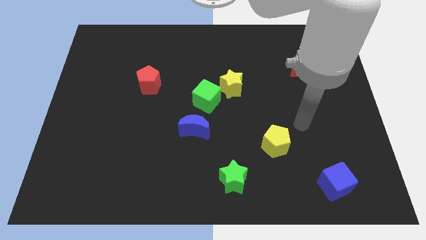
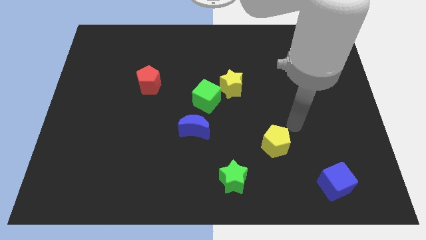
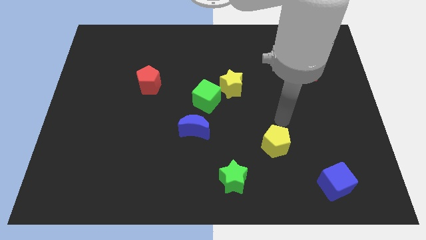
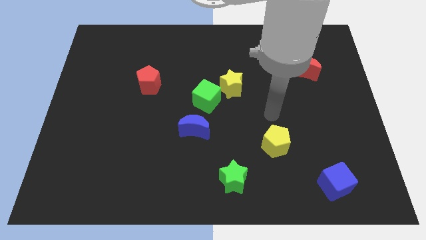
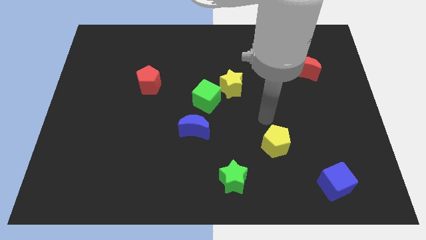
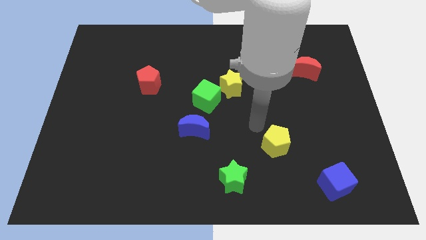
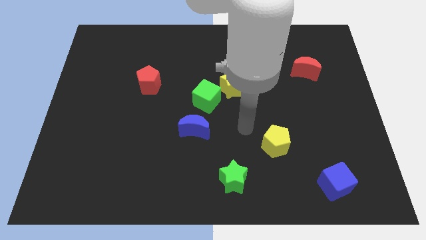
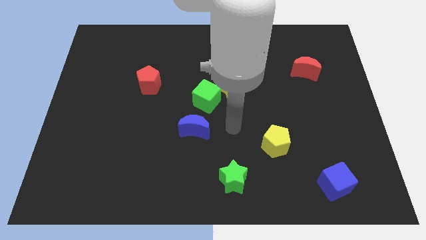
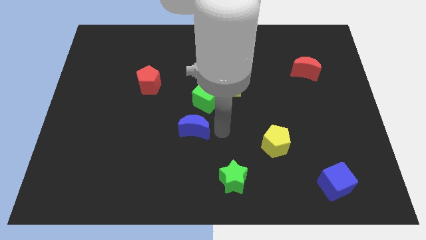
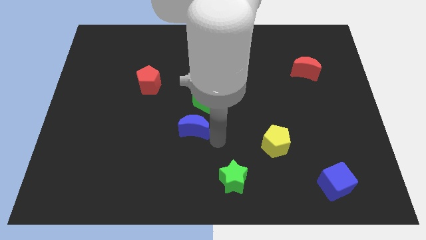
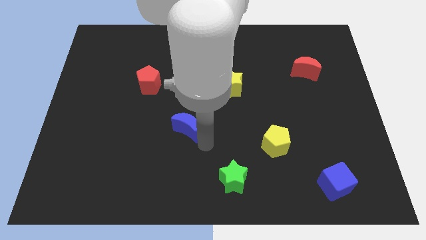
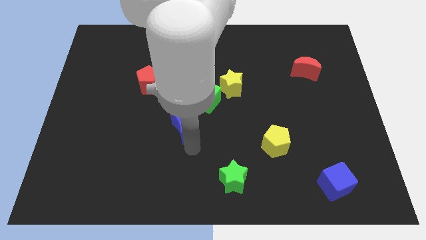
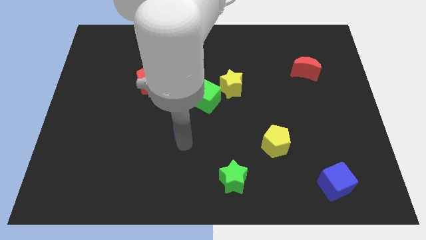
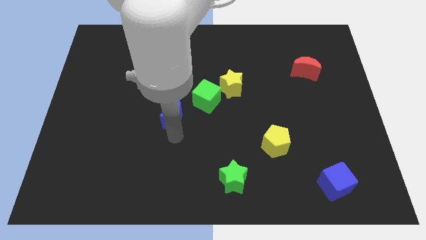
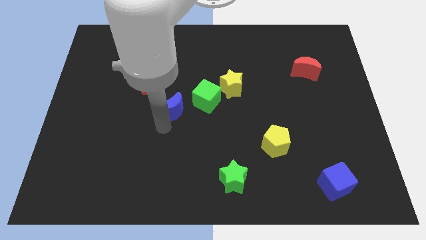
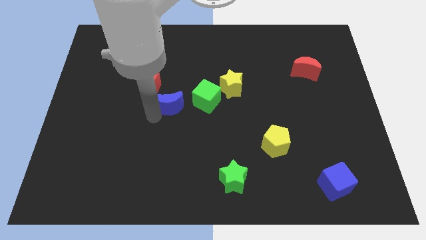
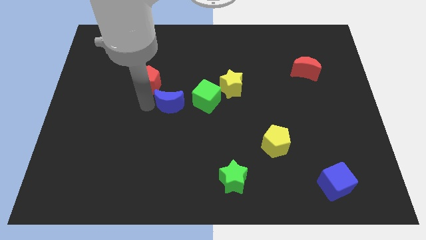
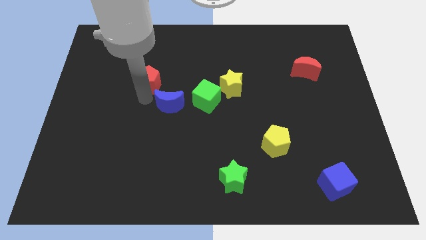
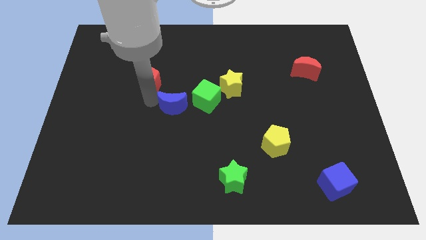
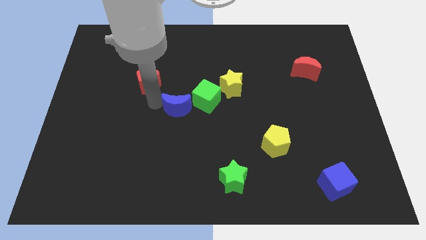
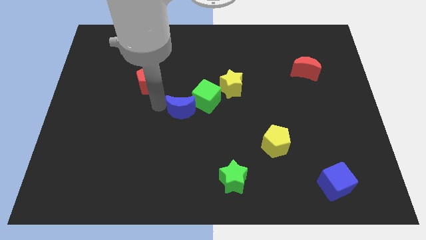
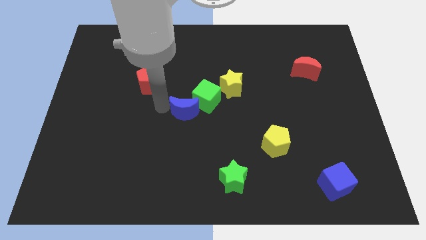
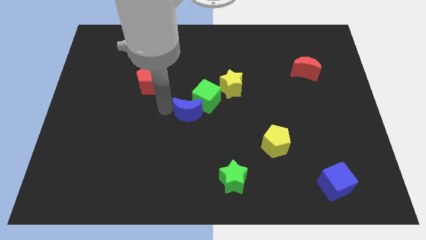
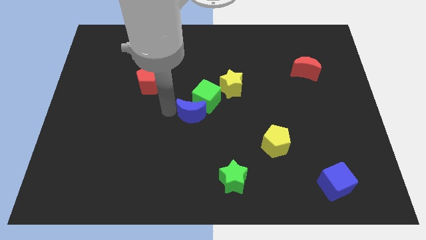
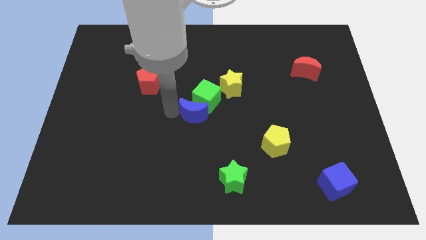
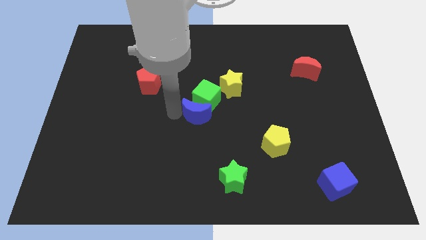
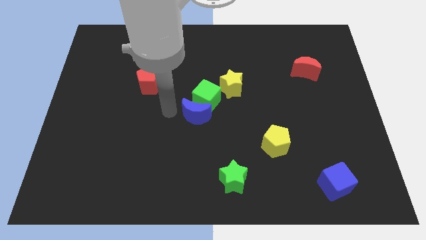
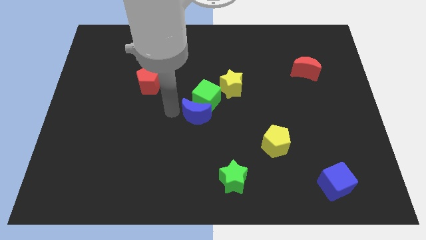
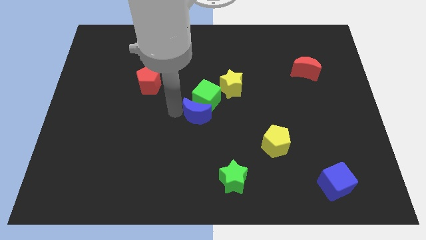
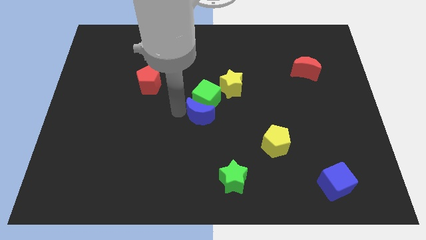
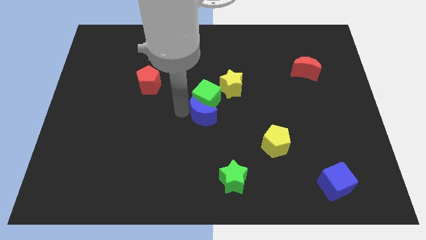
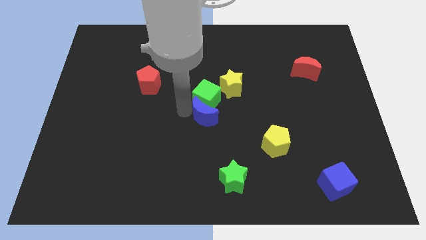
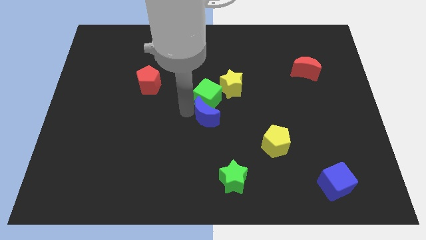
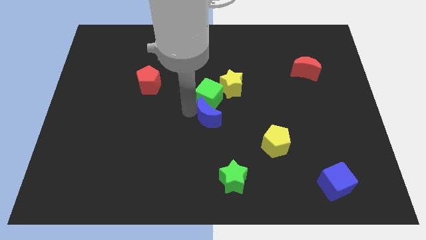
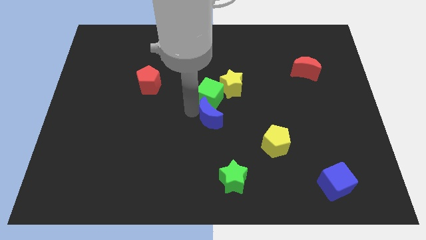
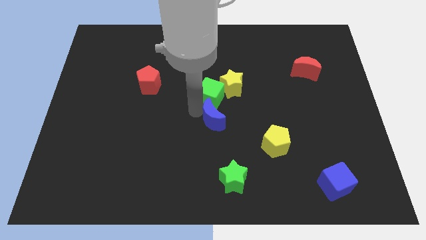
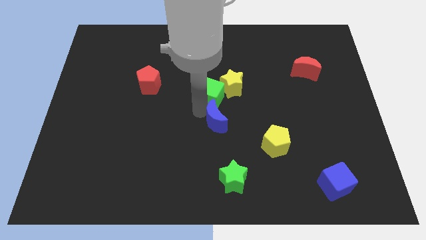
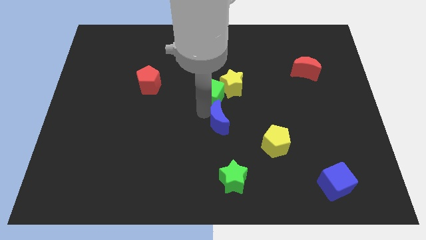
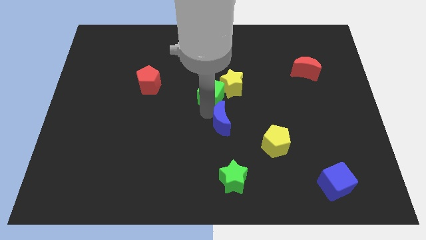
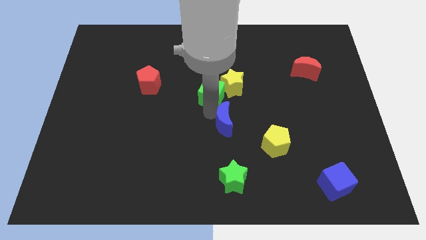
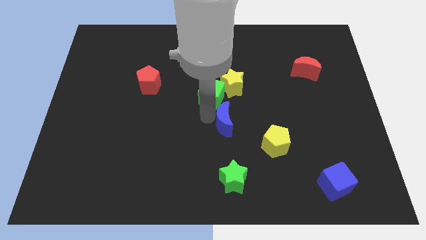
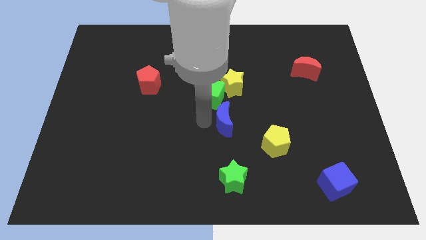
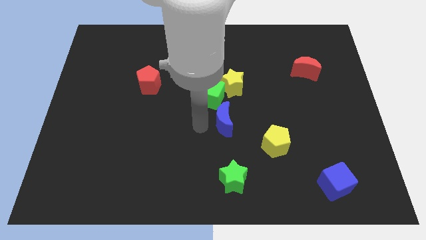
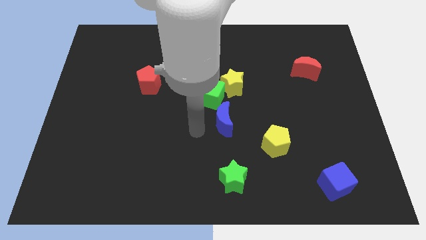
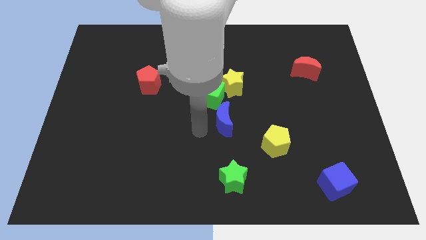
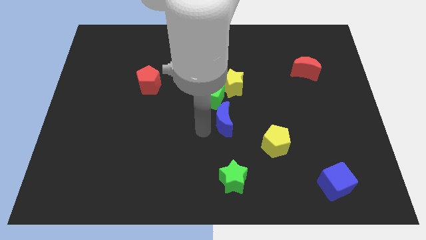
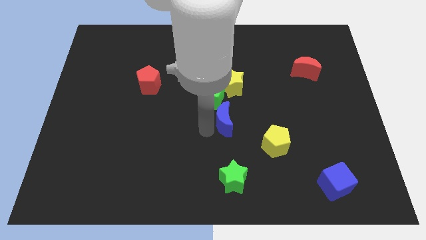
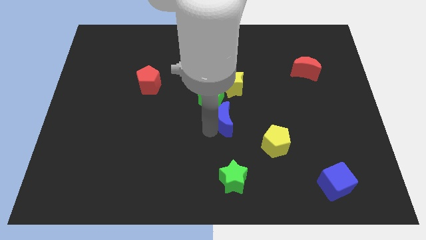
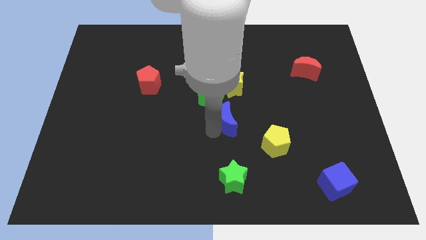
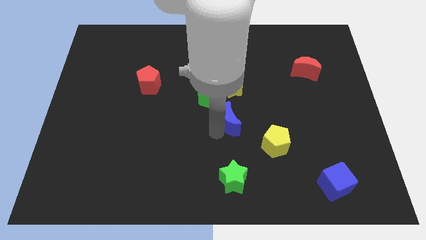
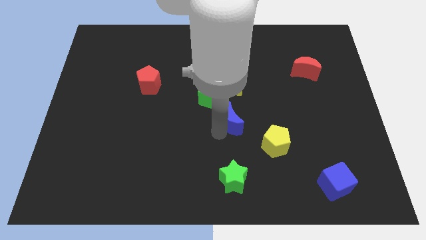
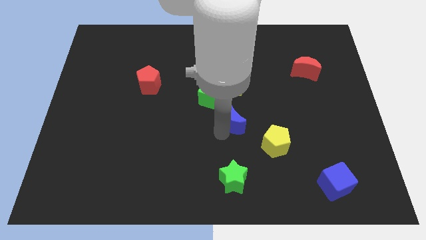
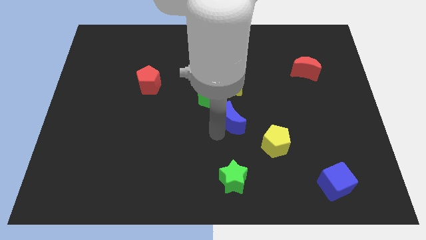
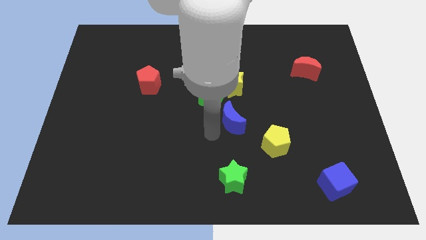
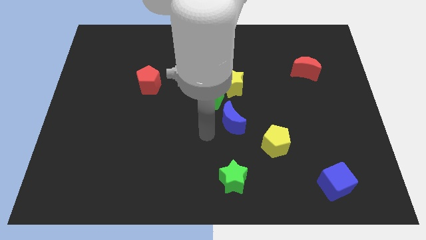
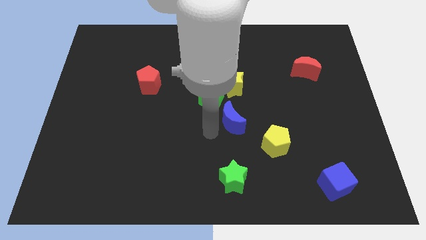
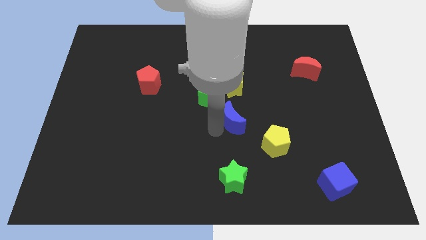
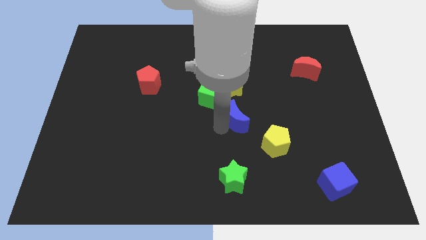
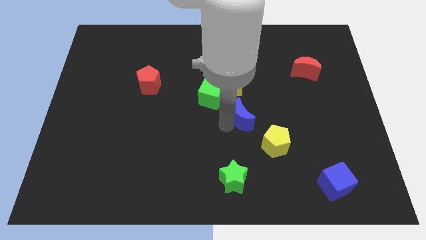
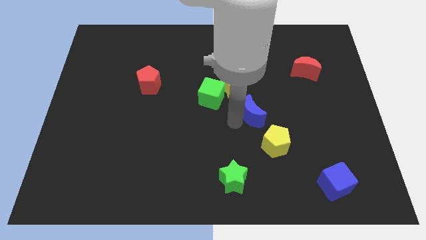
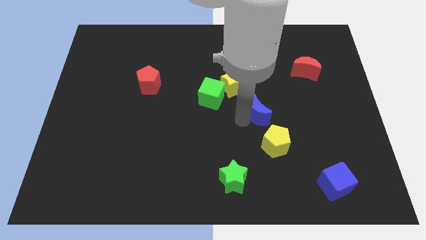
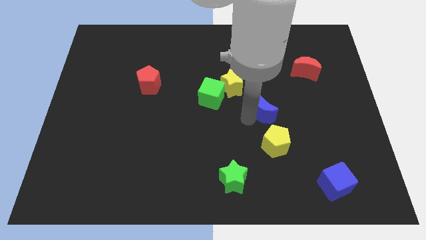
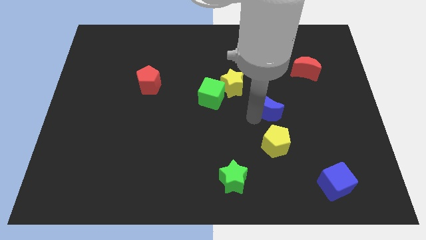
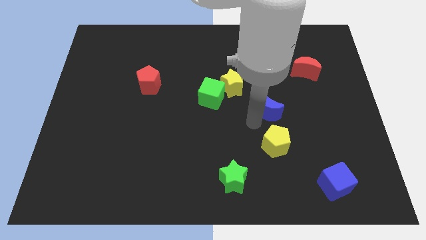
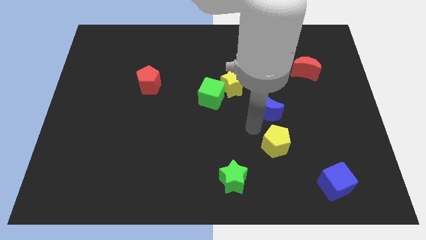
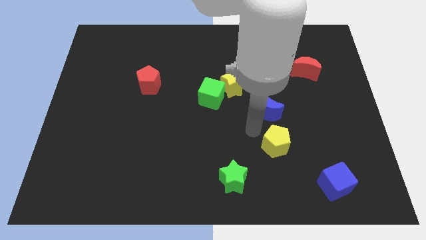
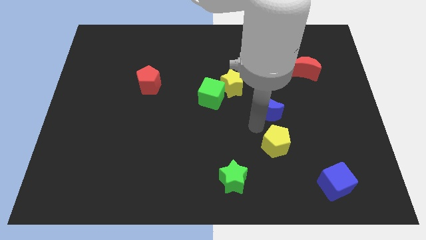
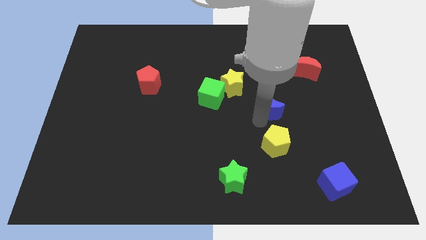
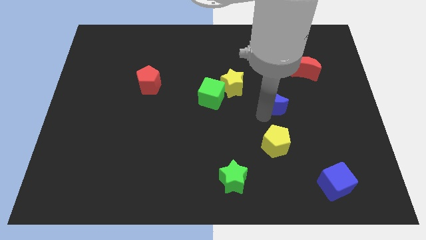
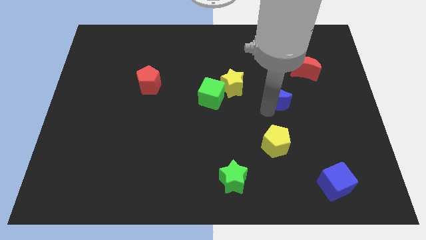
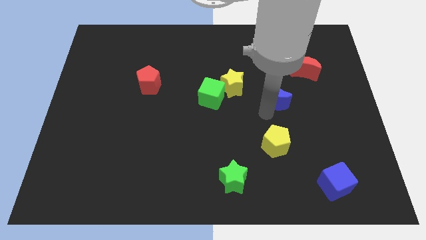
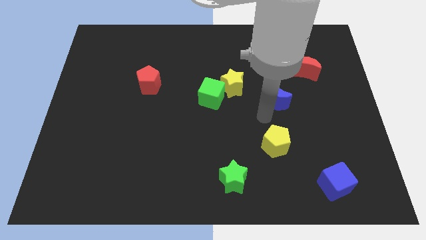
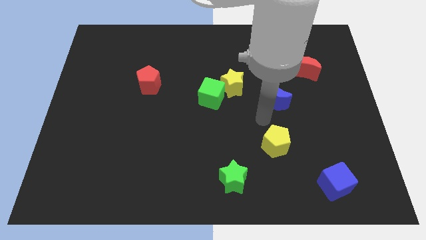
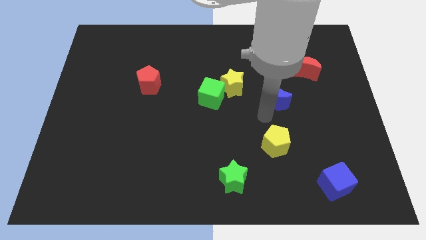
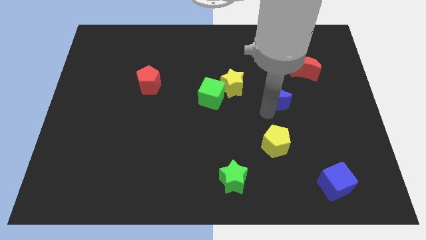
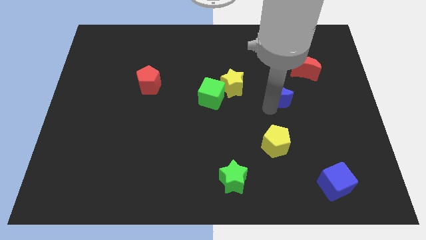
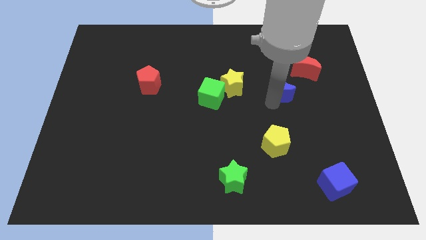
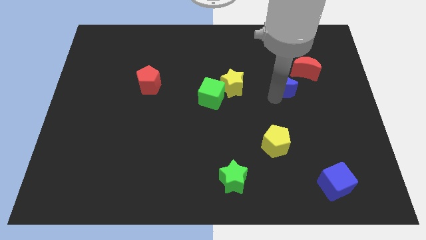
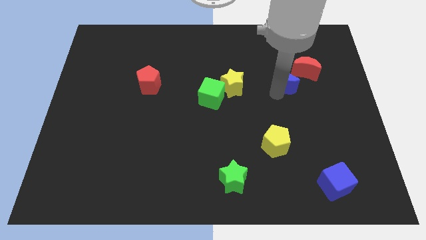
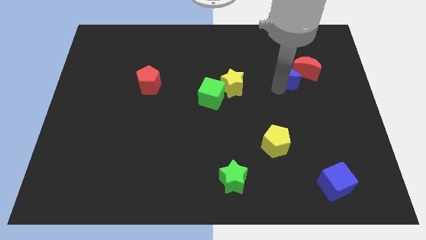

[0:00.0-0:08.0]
move the blue moon towards the red moon
